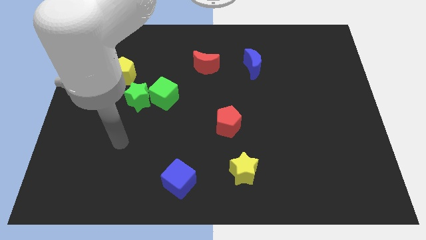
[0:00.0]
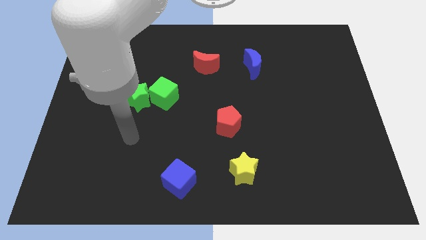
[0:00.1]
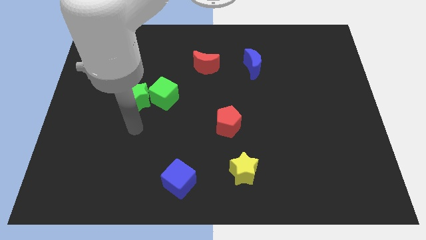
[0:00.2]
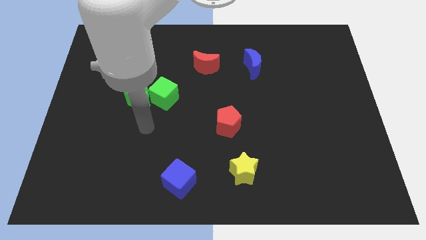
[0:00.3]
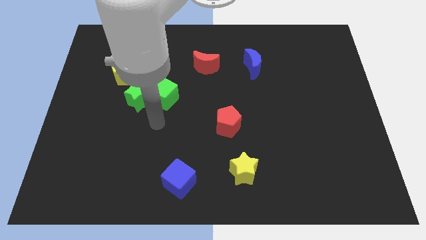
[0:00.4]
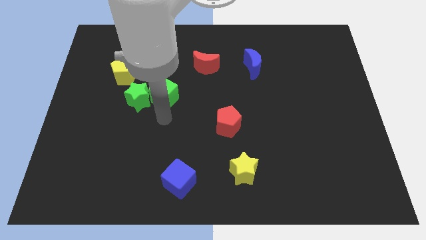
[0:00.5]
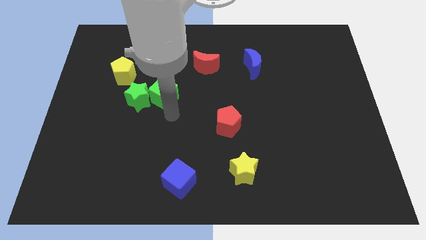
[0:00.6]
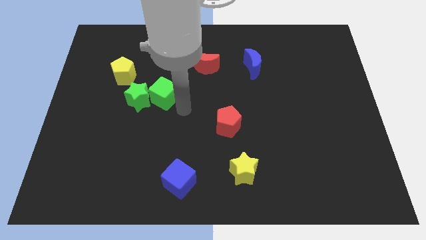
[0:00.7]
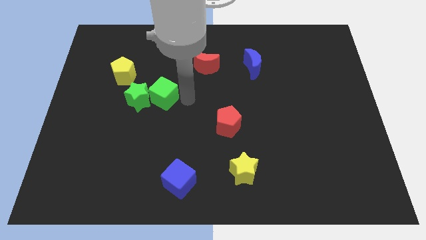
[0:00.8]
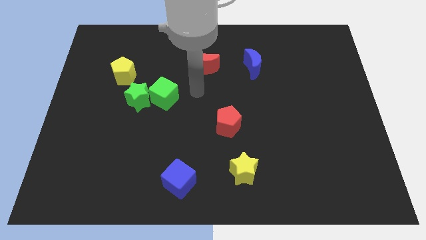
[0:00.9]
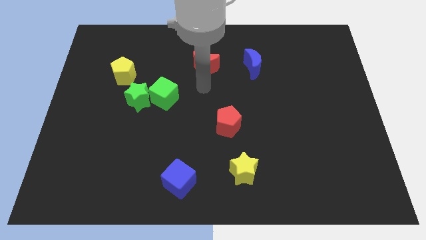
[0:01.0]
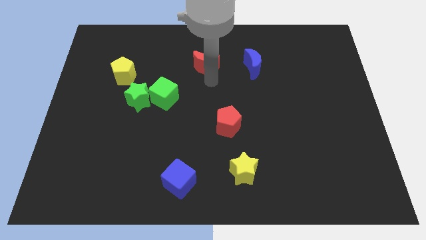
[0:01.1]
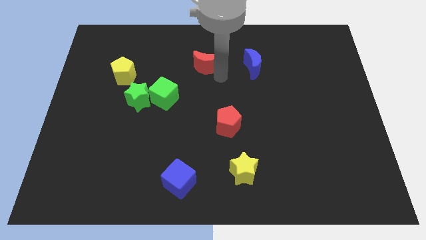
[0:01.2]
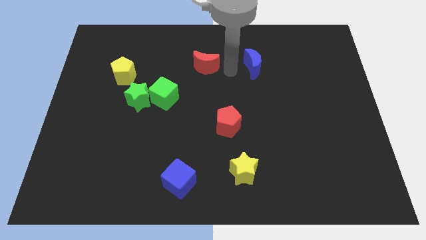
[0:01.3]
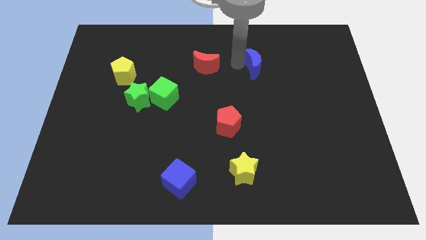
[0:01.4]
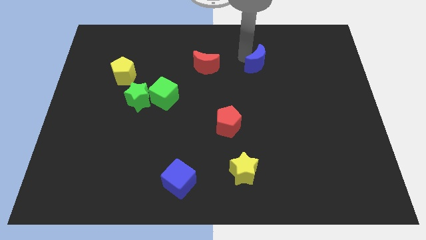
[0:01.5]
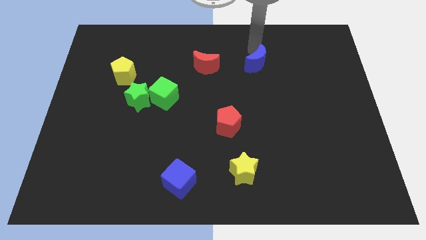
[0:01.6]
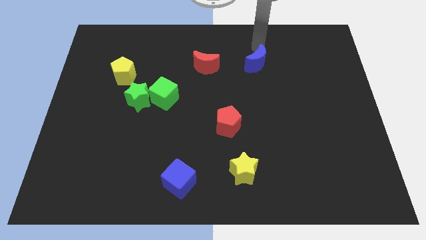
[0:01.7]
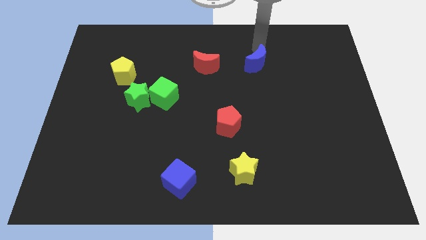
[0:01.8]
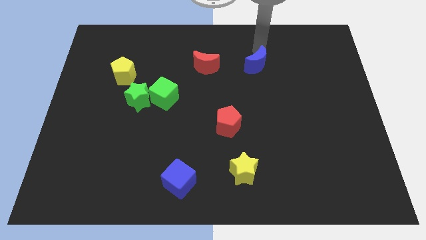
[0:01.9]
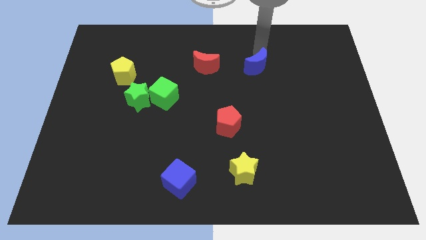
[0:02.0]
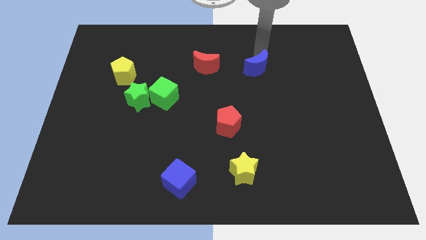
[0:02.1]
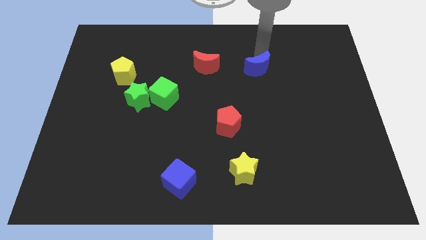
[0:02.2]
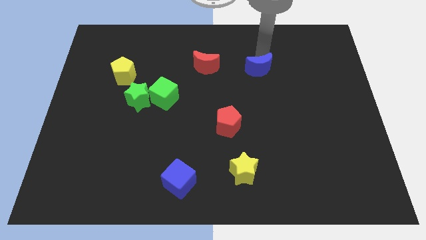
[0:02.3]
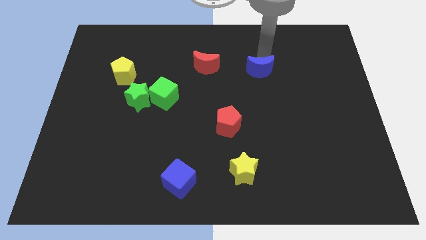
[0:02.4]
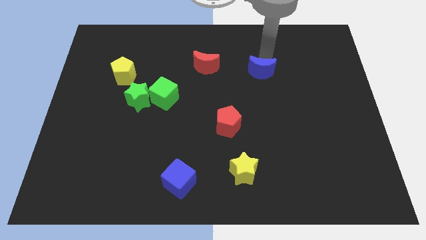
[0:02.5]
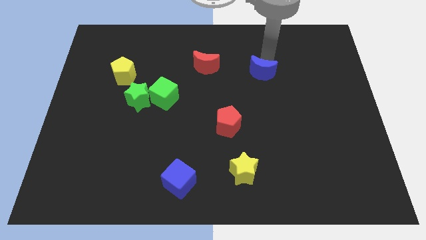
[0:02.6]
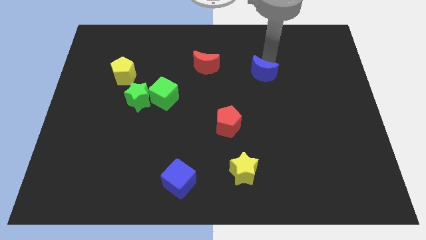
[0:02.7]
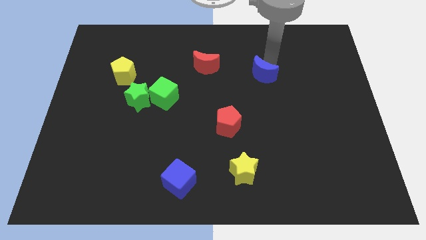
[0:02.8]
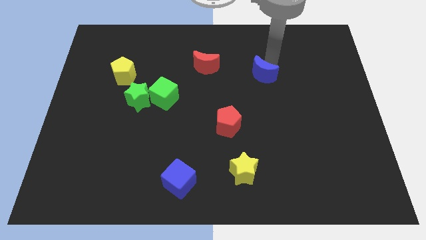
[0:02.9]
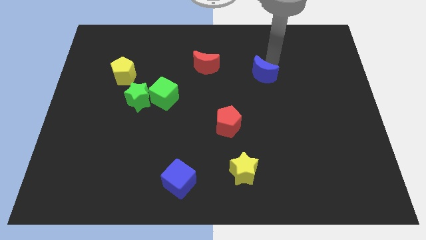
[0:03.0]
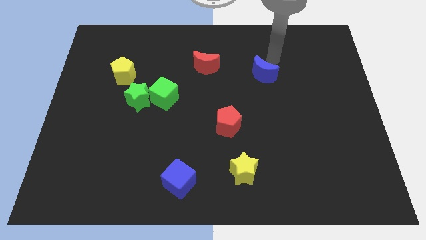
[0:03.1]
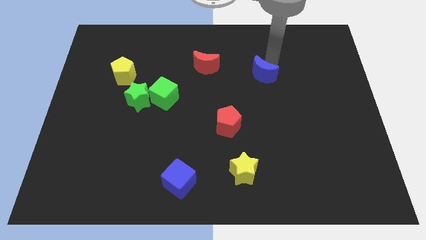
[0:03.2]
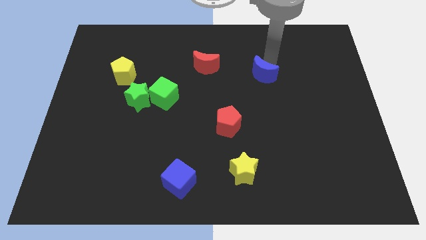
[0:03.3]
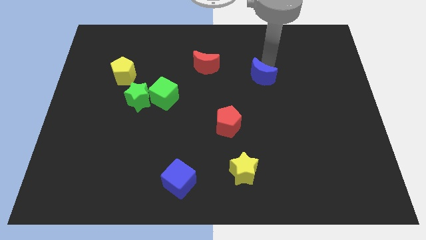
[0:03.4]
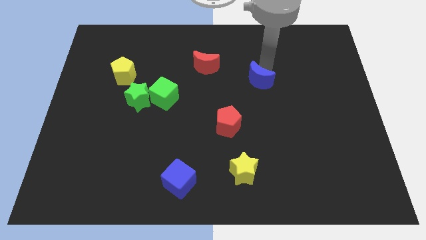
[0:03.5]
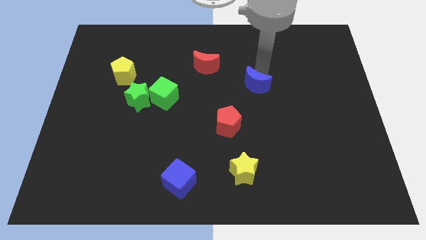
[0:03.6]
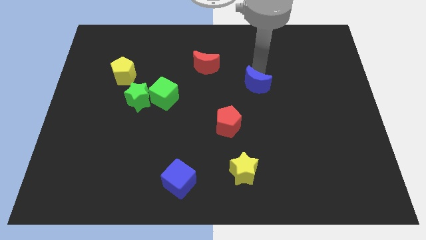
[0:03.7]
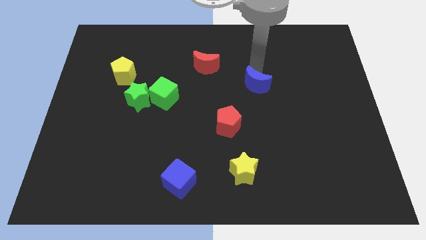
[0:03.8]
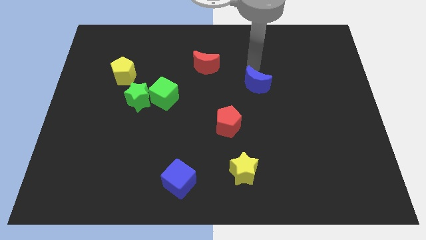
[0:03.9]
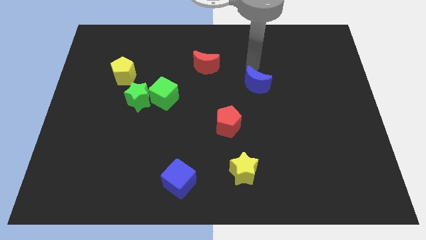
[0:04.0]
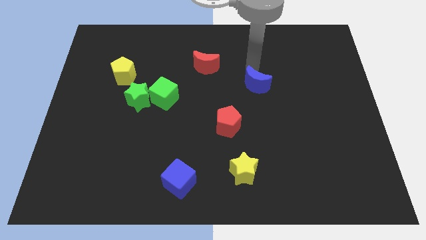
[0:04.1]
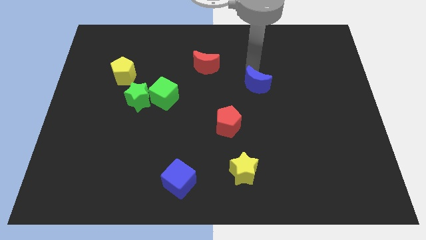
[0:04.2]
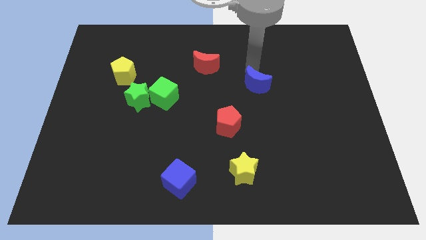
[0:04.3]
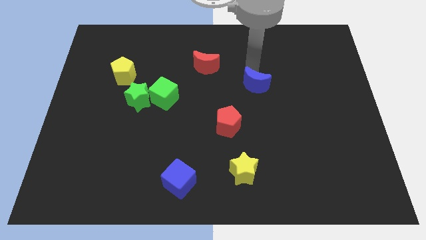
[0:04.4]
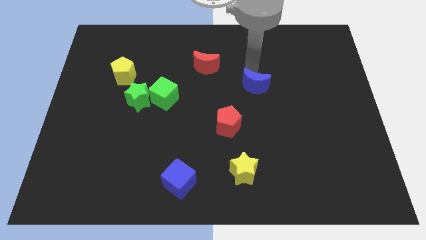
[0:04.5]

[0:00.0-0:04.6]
move the blue moon a little downwards

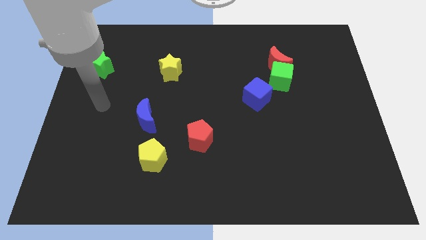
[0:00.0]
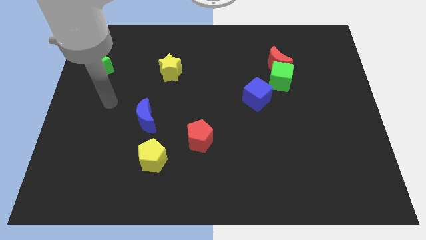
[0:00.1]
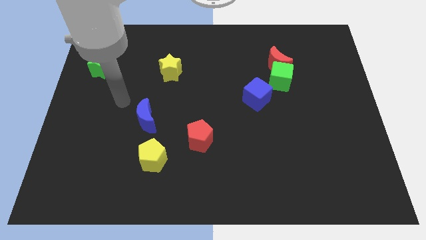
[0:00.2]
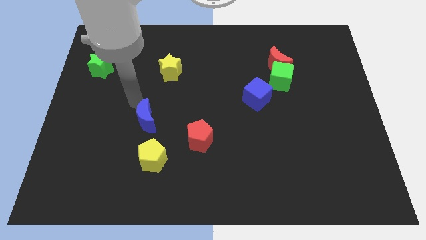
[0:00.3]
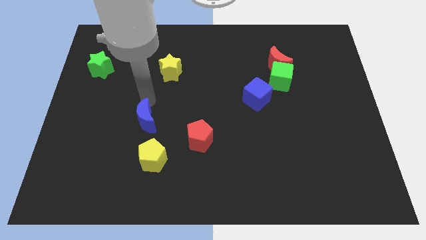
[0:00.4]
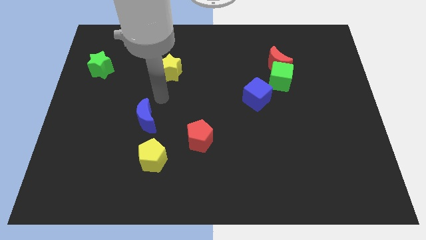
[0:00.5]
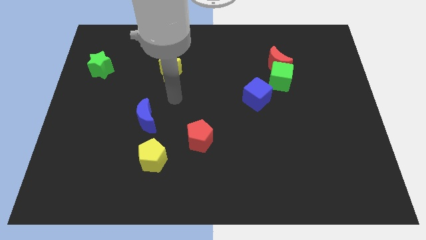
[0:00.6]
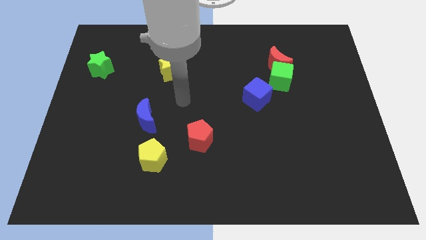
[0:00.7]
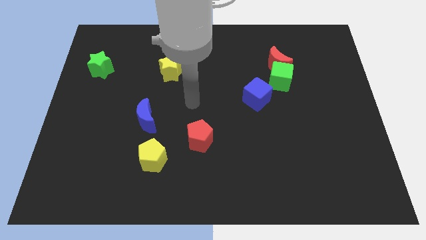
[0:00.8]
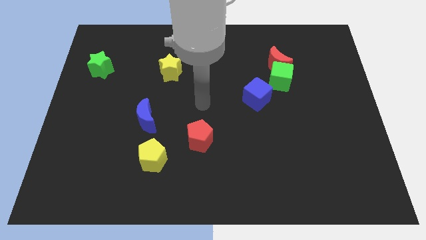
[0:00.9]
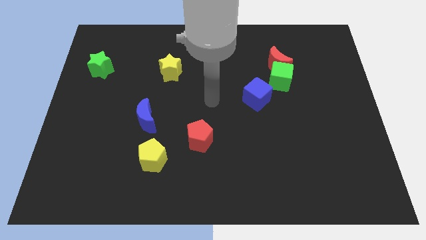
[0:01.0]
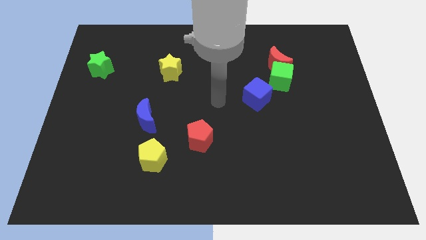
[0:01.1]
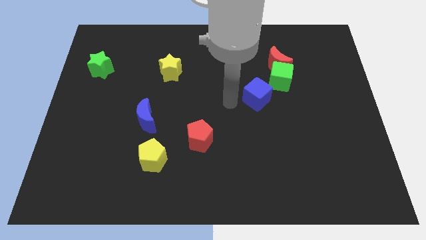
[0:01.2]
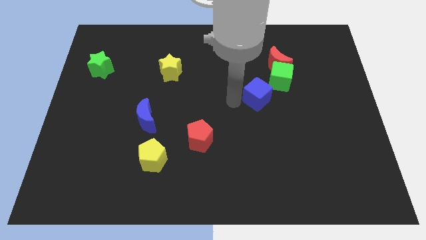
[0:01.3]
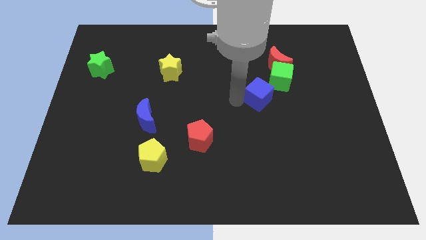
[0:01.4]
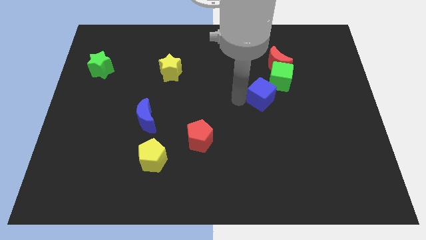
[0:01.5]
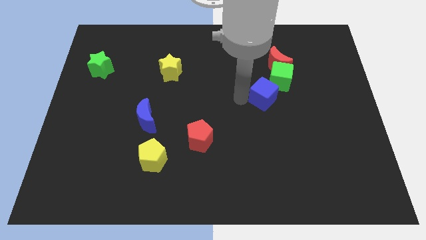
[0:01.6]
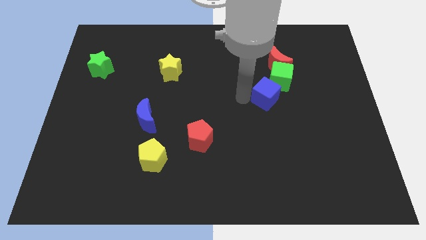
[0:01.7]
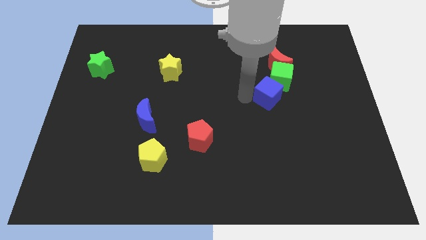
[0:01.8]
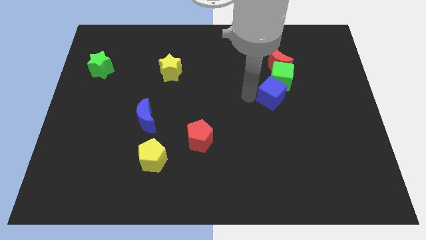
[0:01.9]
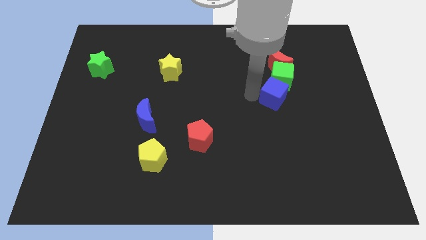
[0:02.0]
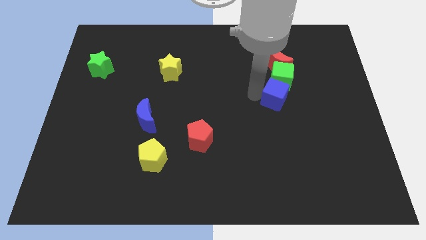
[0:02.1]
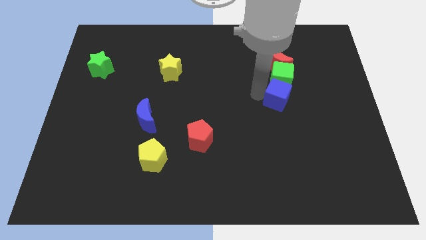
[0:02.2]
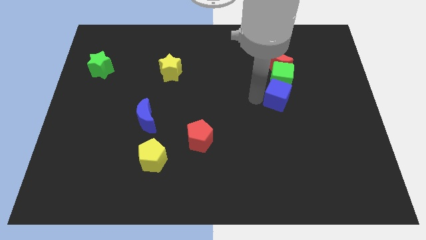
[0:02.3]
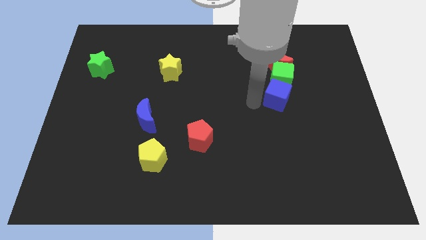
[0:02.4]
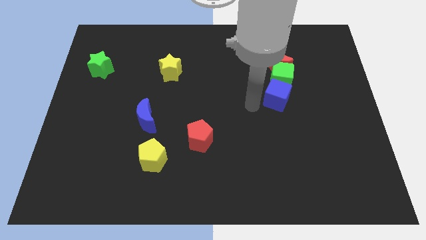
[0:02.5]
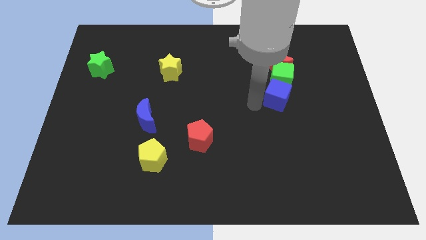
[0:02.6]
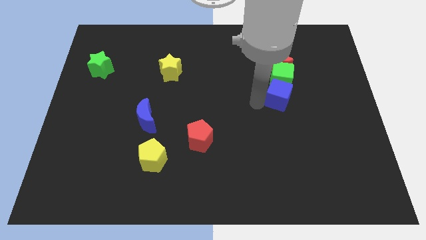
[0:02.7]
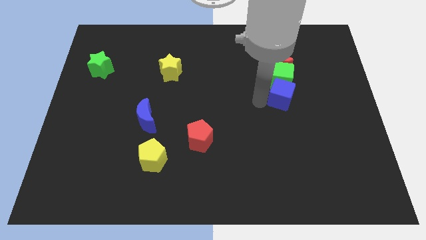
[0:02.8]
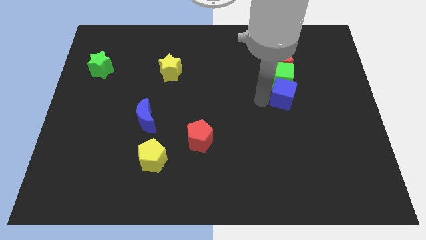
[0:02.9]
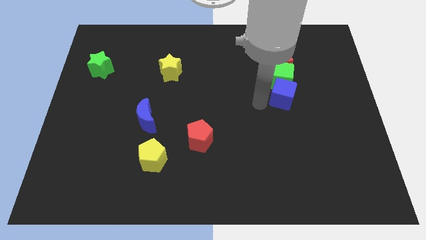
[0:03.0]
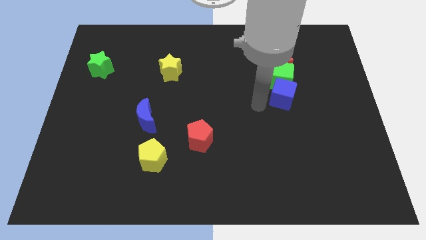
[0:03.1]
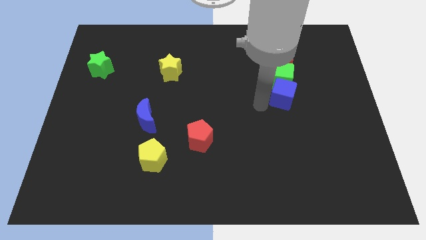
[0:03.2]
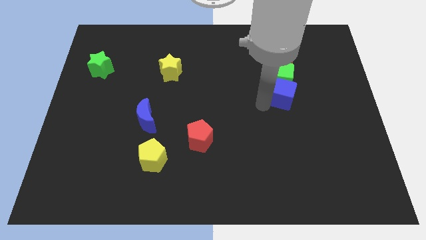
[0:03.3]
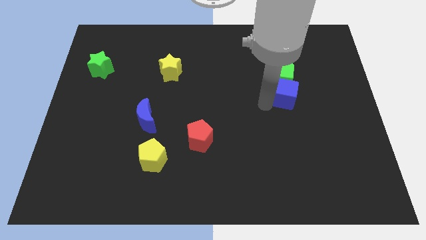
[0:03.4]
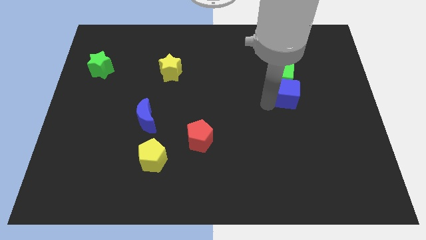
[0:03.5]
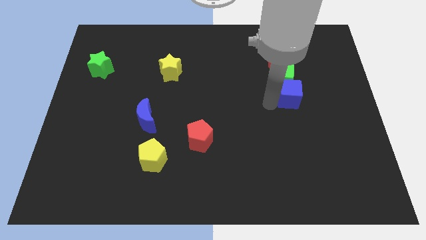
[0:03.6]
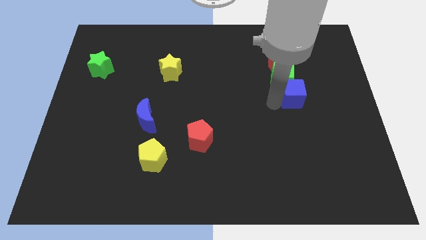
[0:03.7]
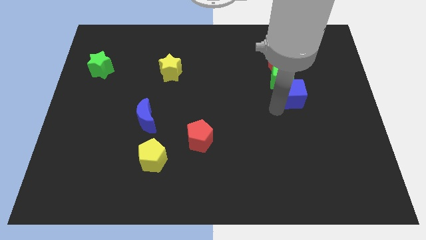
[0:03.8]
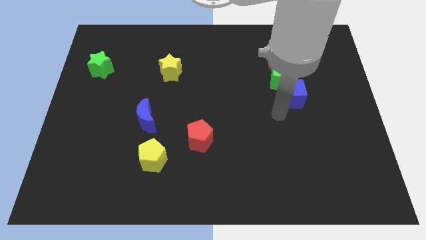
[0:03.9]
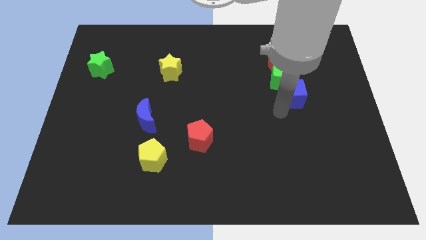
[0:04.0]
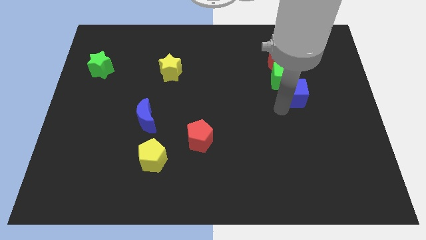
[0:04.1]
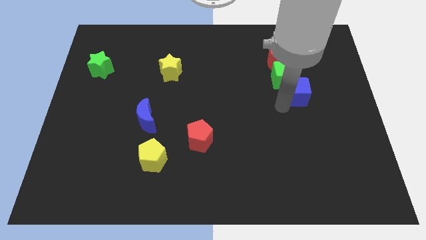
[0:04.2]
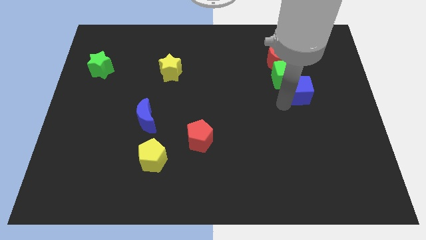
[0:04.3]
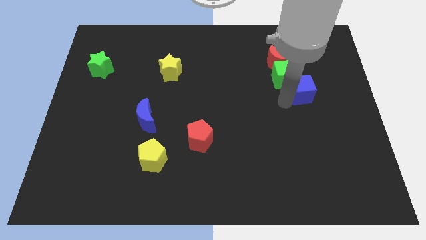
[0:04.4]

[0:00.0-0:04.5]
slightly move the blue cube diagonally up and right
